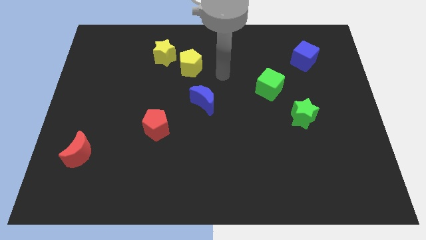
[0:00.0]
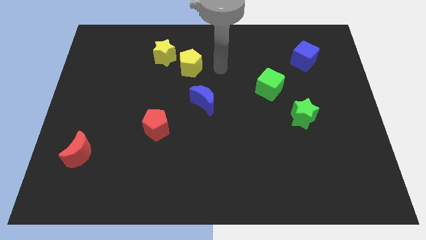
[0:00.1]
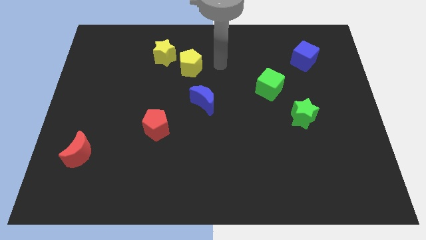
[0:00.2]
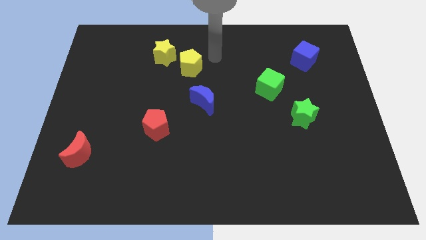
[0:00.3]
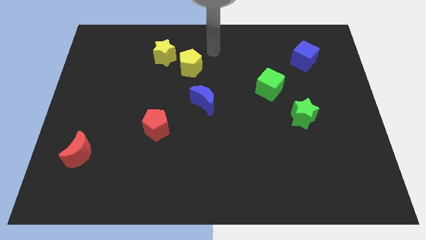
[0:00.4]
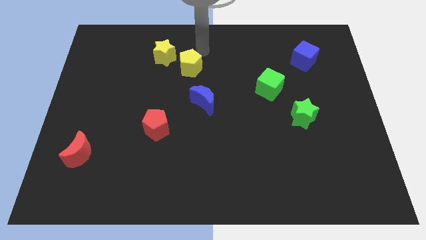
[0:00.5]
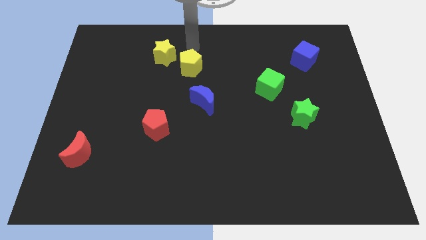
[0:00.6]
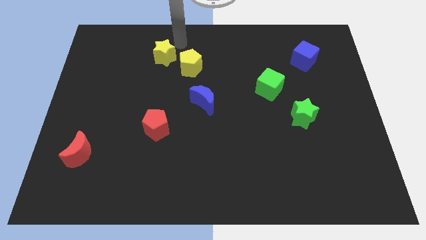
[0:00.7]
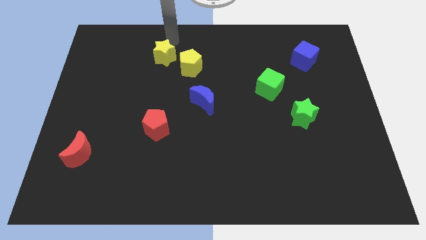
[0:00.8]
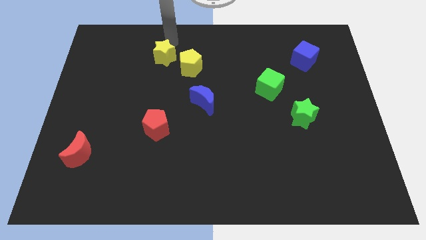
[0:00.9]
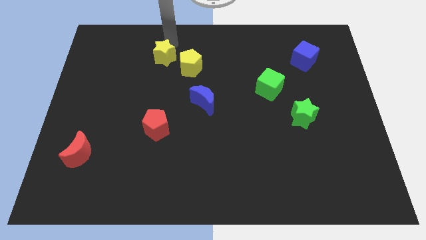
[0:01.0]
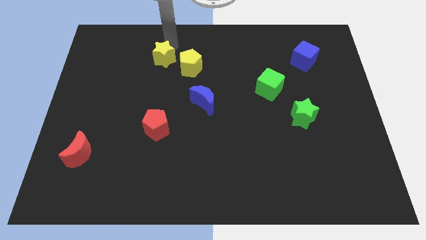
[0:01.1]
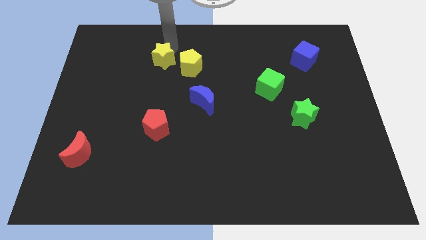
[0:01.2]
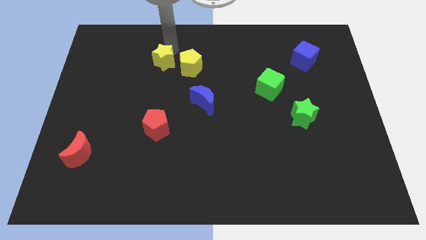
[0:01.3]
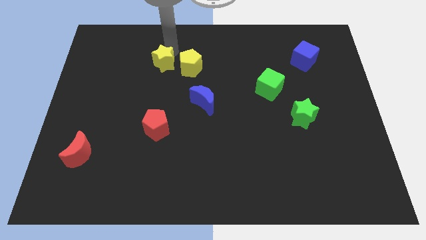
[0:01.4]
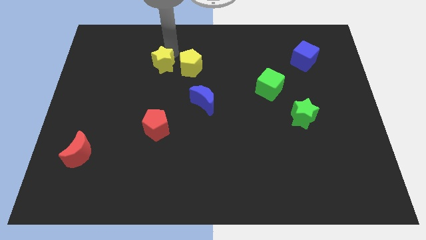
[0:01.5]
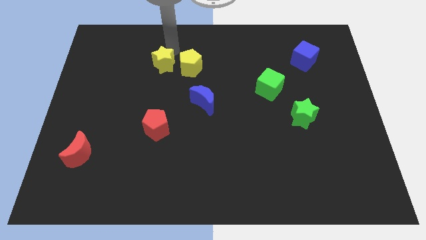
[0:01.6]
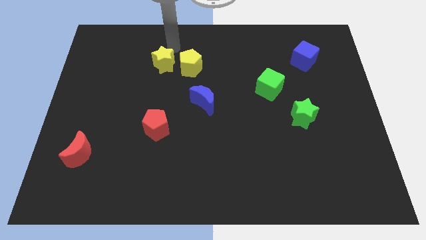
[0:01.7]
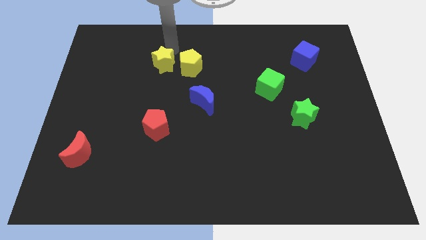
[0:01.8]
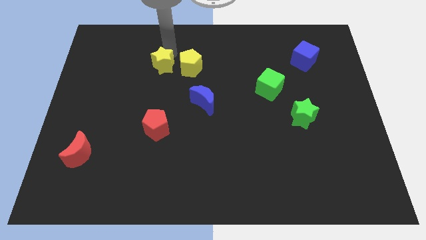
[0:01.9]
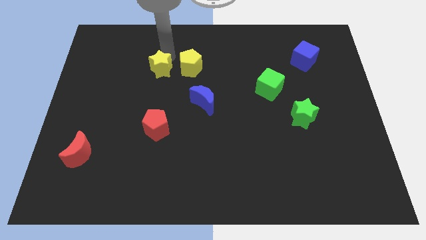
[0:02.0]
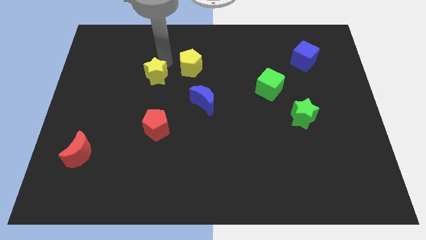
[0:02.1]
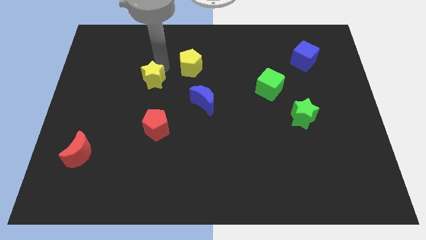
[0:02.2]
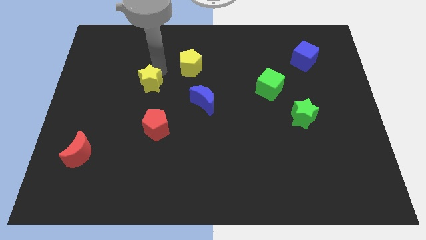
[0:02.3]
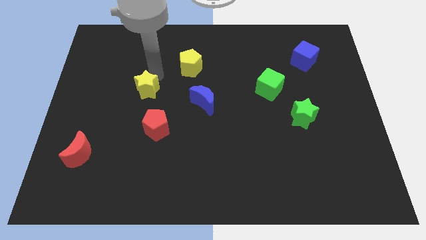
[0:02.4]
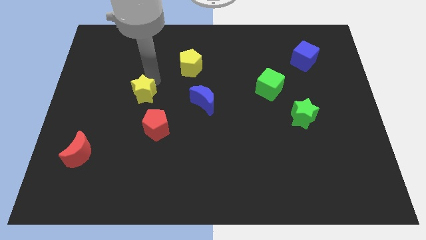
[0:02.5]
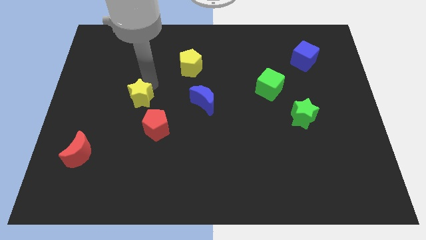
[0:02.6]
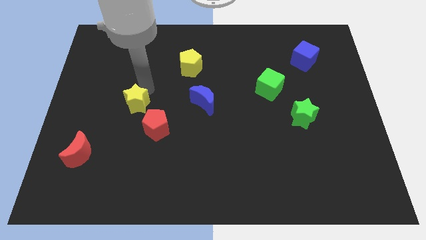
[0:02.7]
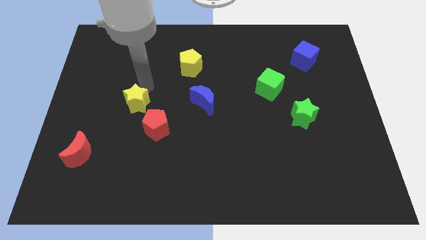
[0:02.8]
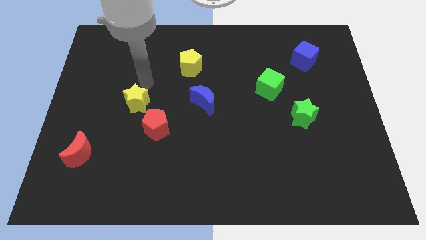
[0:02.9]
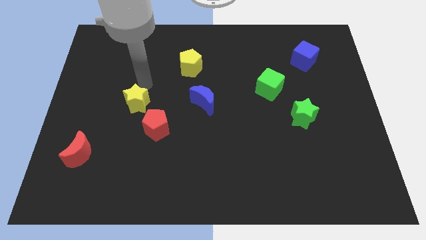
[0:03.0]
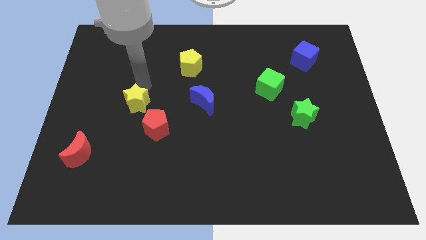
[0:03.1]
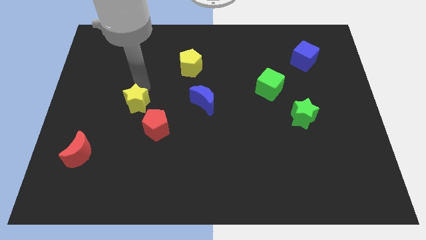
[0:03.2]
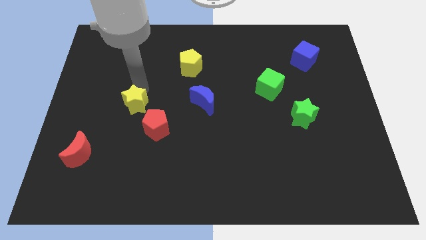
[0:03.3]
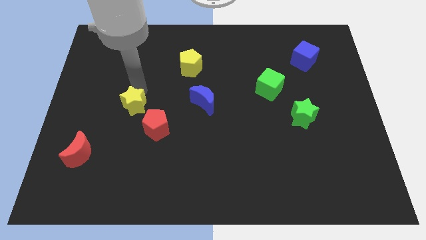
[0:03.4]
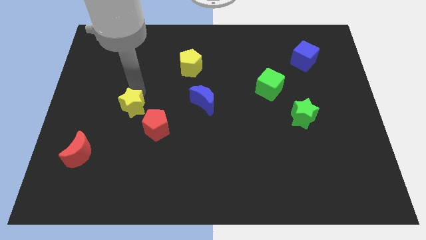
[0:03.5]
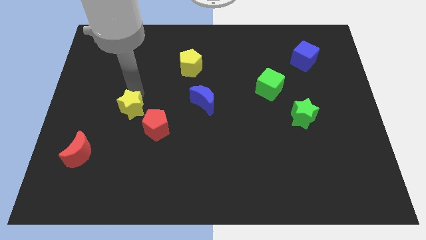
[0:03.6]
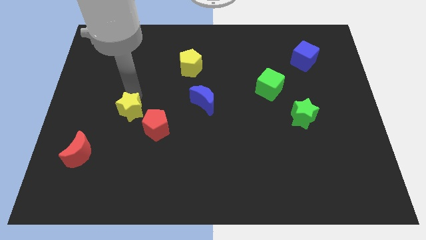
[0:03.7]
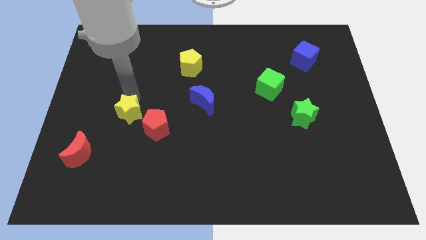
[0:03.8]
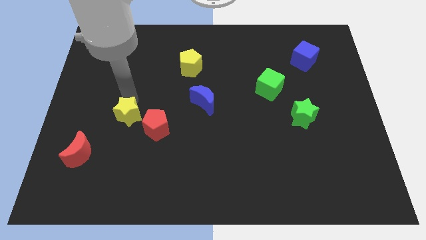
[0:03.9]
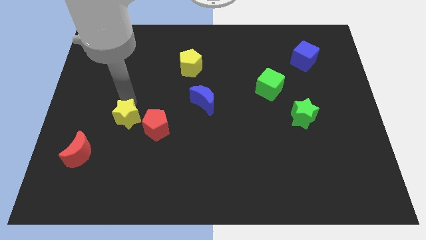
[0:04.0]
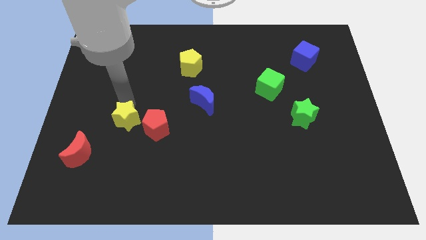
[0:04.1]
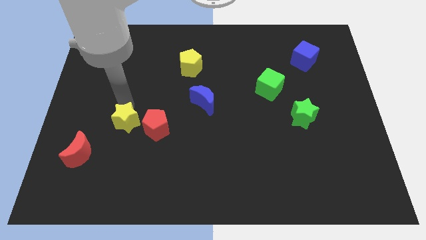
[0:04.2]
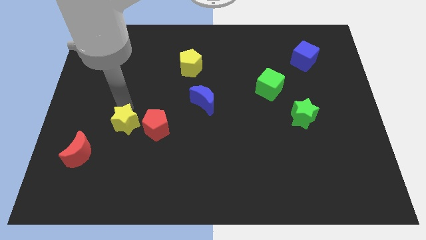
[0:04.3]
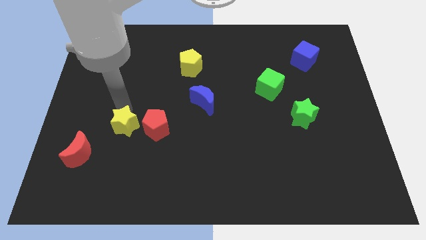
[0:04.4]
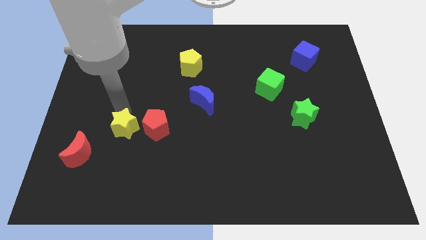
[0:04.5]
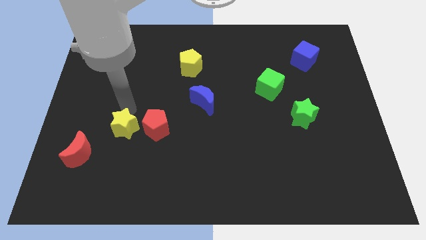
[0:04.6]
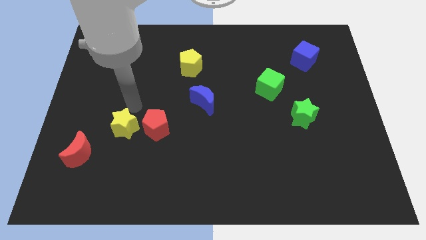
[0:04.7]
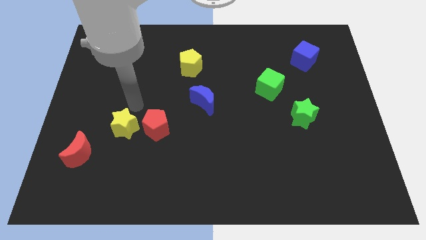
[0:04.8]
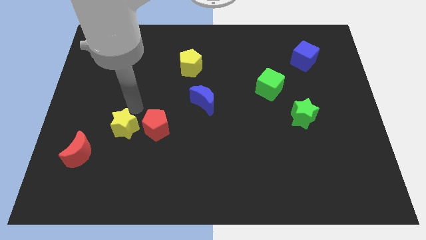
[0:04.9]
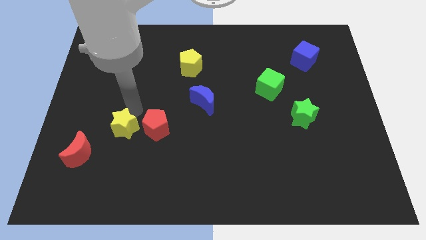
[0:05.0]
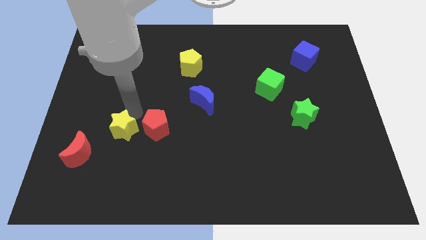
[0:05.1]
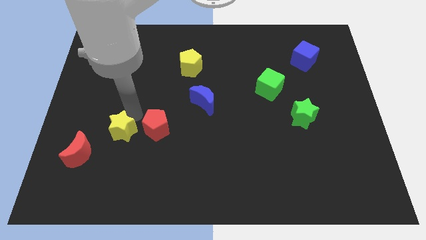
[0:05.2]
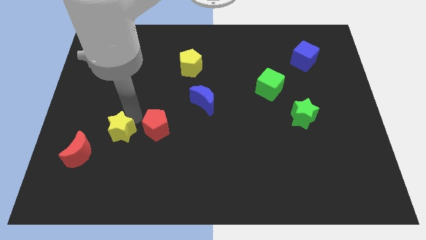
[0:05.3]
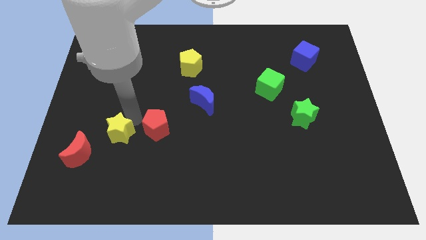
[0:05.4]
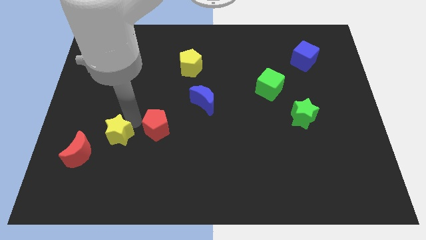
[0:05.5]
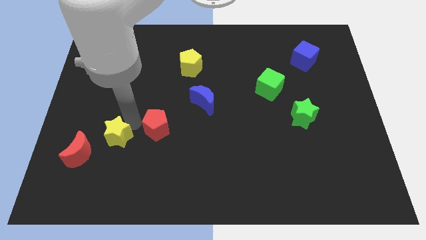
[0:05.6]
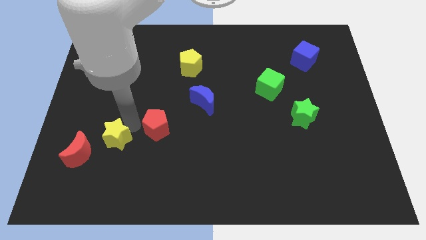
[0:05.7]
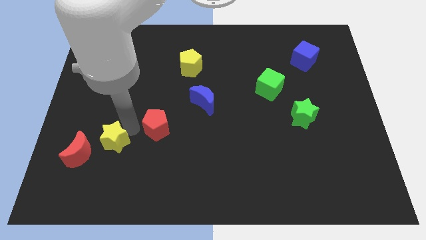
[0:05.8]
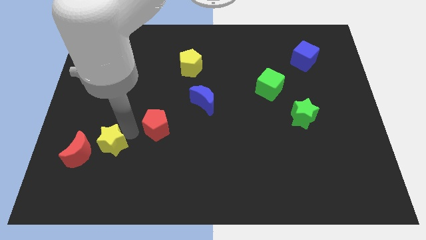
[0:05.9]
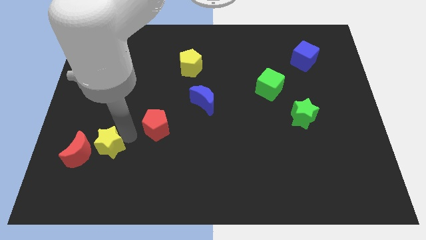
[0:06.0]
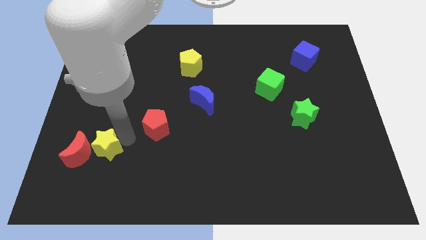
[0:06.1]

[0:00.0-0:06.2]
slide the yellow star diagonally down and to the right of the red moon

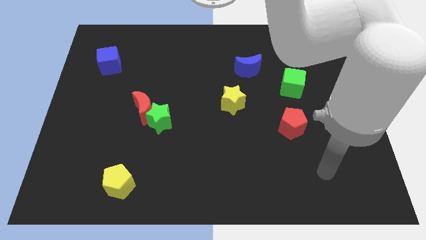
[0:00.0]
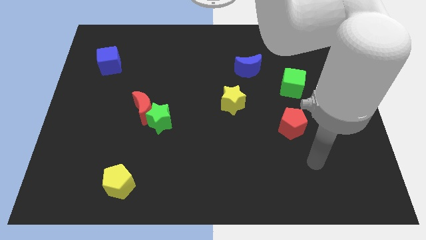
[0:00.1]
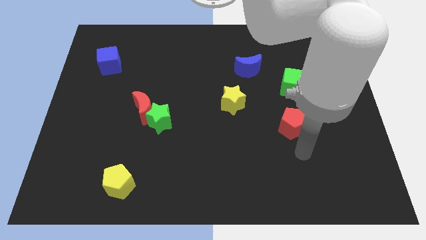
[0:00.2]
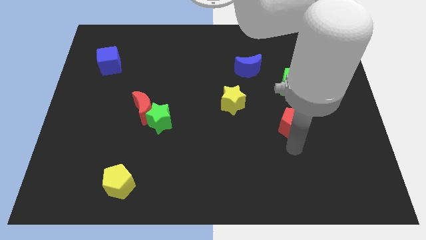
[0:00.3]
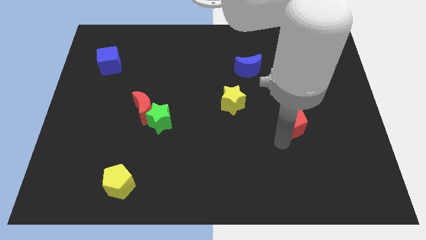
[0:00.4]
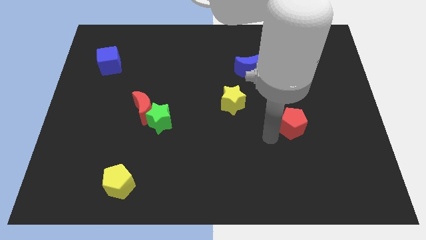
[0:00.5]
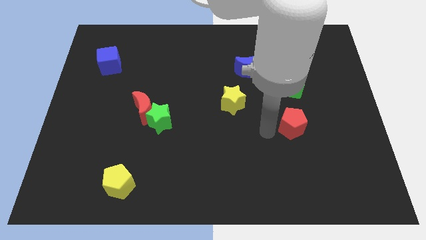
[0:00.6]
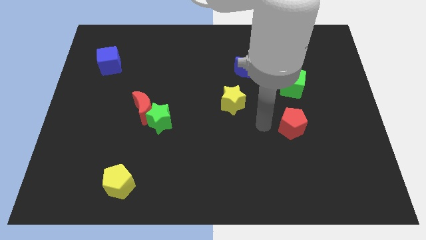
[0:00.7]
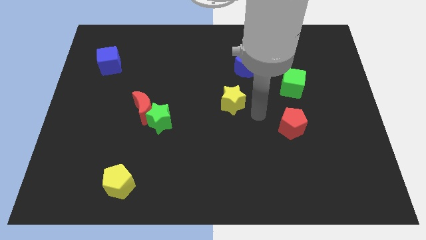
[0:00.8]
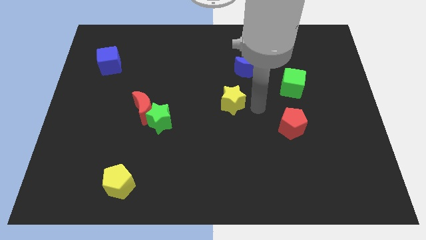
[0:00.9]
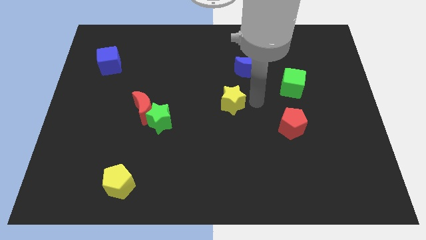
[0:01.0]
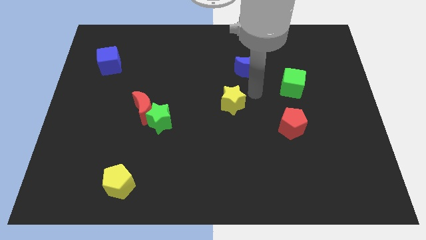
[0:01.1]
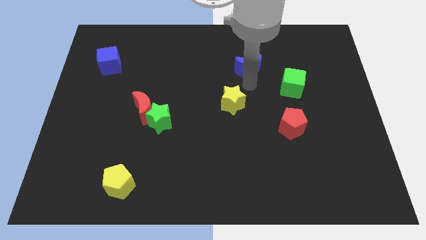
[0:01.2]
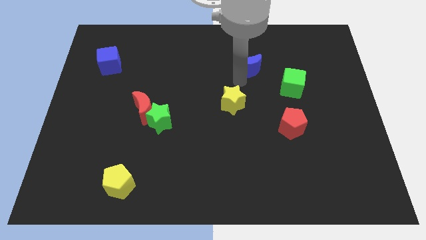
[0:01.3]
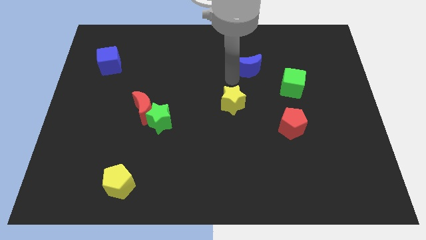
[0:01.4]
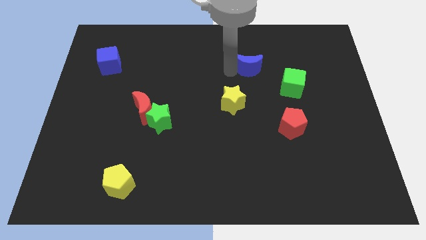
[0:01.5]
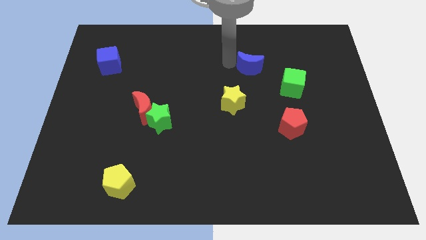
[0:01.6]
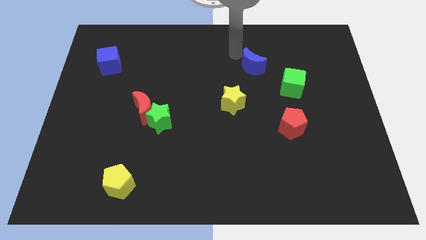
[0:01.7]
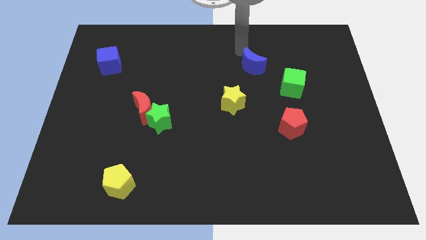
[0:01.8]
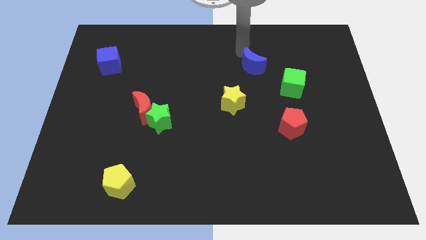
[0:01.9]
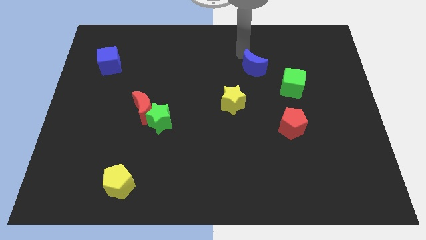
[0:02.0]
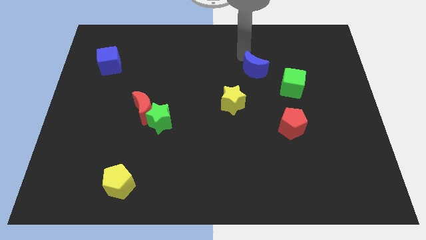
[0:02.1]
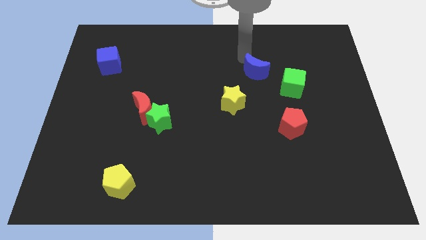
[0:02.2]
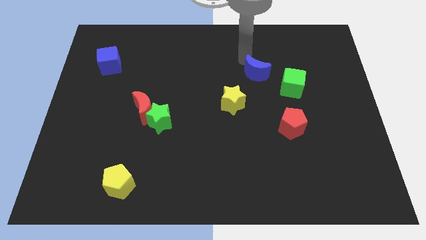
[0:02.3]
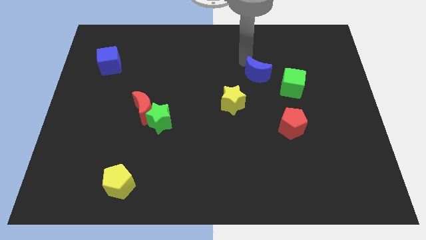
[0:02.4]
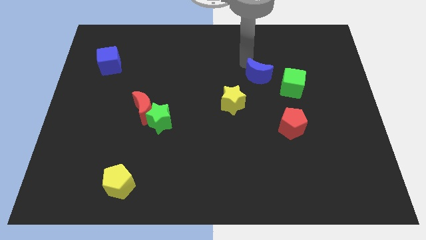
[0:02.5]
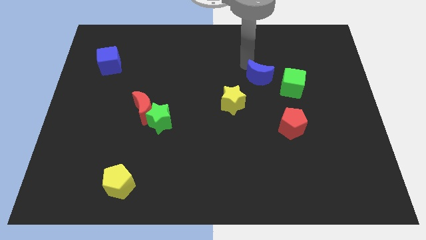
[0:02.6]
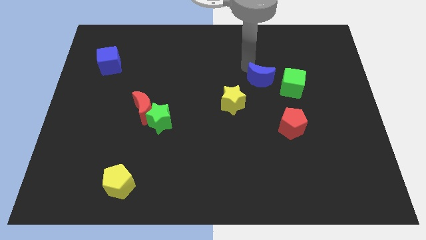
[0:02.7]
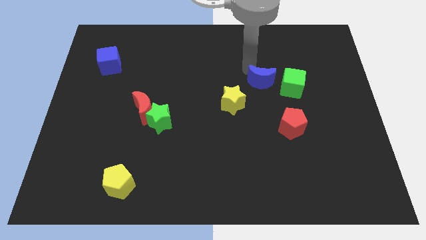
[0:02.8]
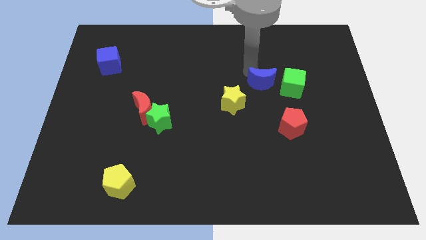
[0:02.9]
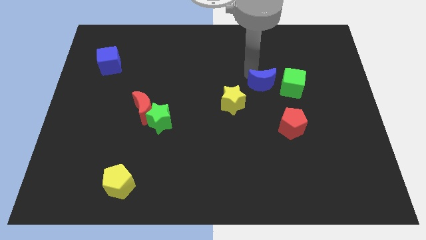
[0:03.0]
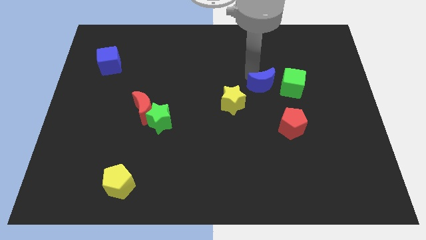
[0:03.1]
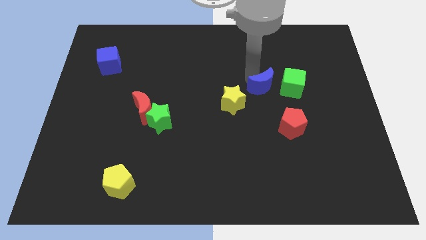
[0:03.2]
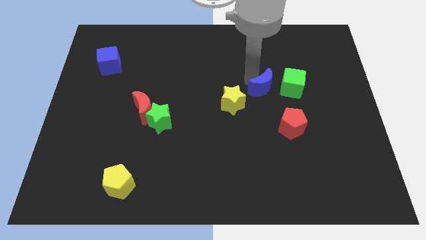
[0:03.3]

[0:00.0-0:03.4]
push the blue moon just right of the yellow star
